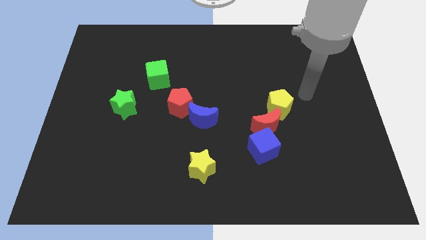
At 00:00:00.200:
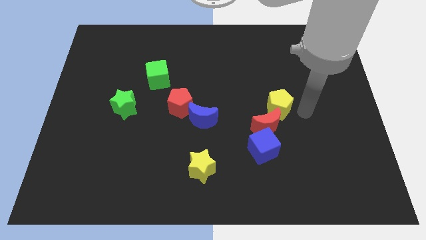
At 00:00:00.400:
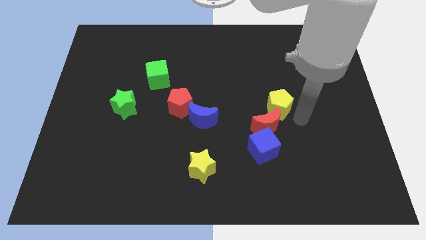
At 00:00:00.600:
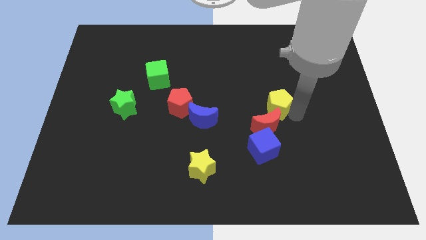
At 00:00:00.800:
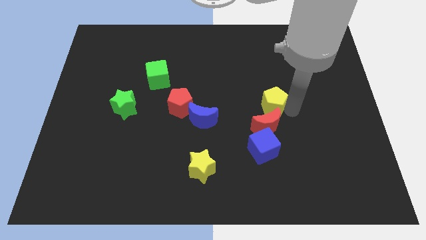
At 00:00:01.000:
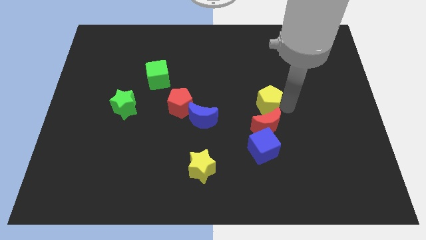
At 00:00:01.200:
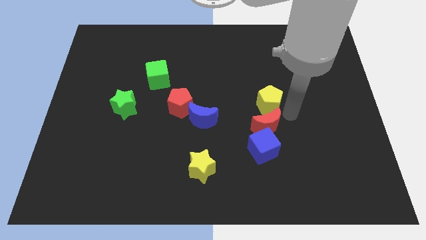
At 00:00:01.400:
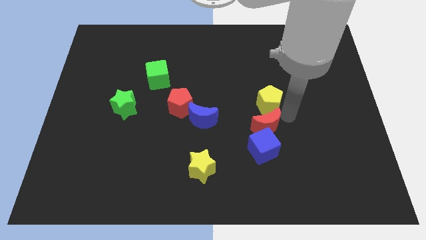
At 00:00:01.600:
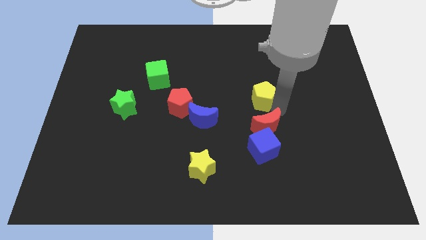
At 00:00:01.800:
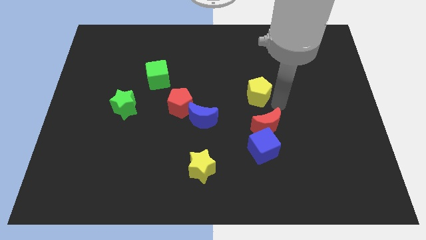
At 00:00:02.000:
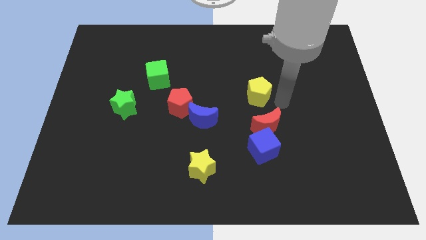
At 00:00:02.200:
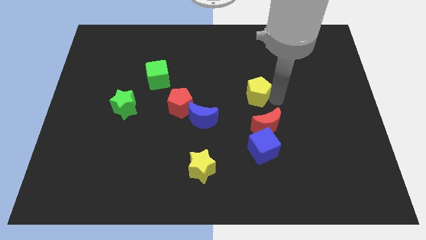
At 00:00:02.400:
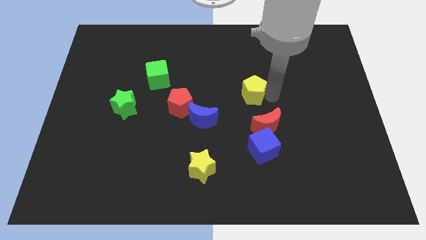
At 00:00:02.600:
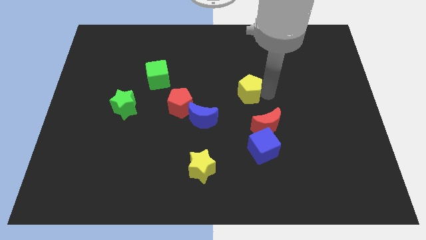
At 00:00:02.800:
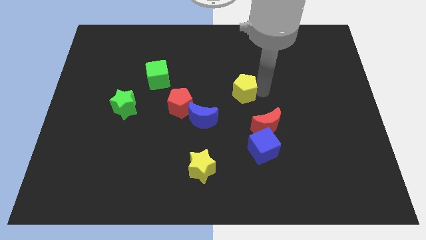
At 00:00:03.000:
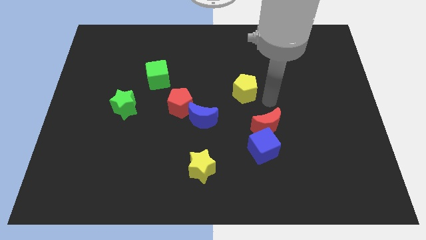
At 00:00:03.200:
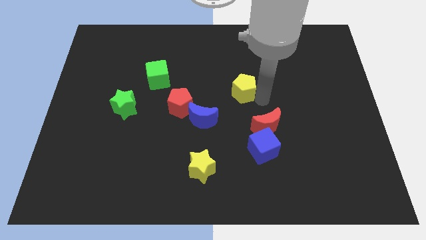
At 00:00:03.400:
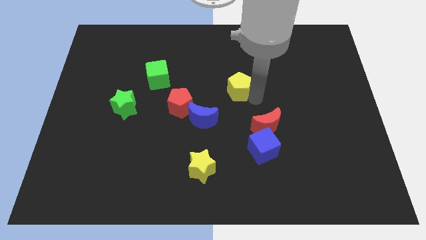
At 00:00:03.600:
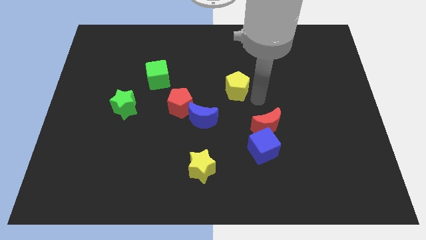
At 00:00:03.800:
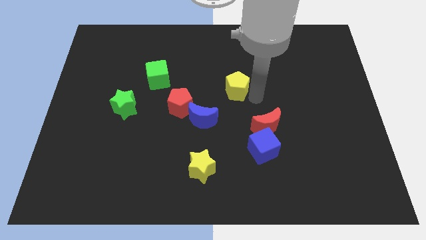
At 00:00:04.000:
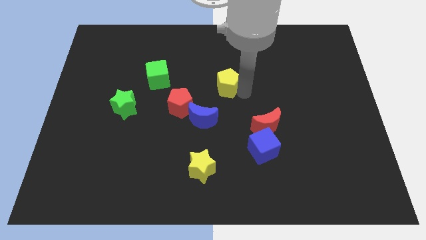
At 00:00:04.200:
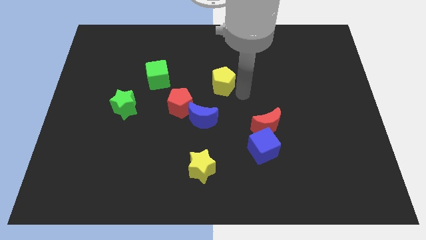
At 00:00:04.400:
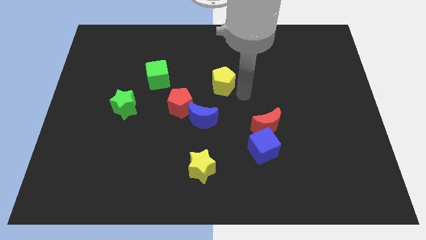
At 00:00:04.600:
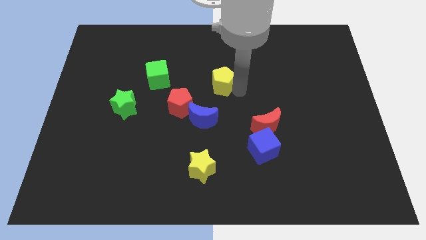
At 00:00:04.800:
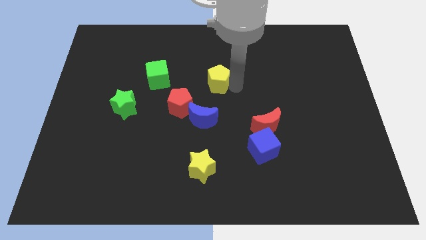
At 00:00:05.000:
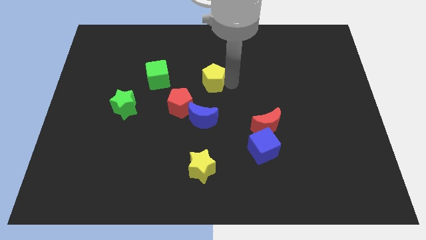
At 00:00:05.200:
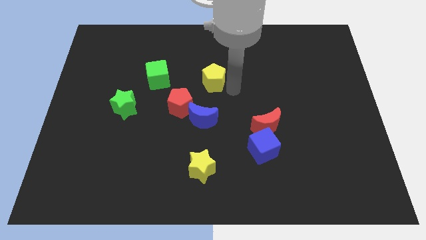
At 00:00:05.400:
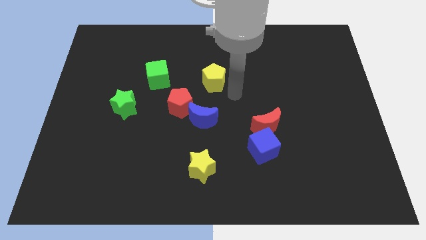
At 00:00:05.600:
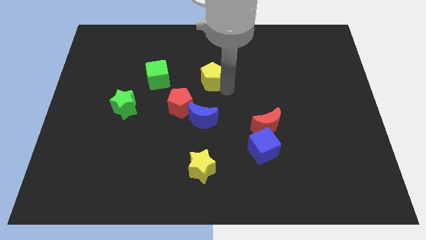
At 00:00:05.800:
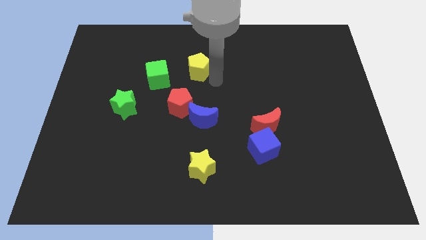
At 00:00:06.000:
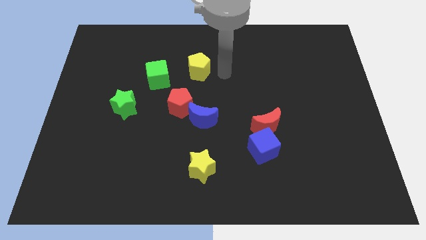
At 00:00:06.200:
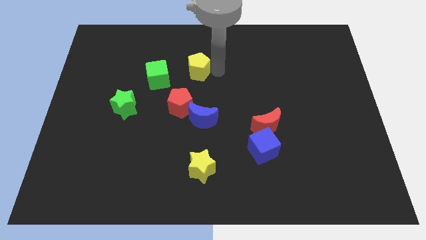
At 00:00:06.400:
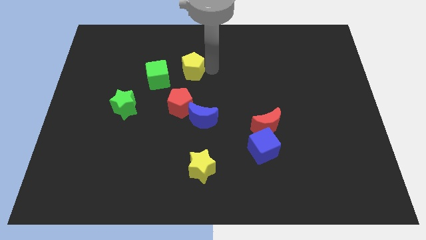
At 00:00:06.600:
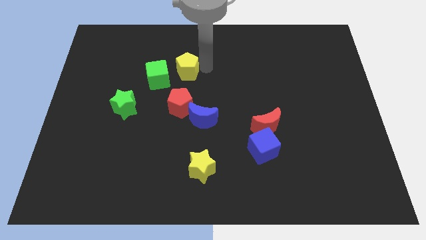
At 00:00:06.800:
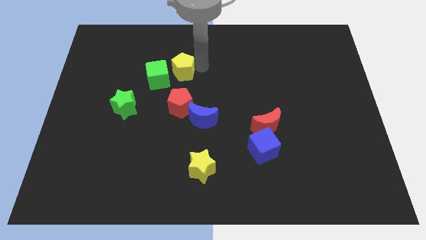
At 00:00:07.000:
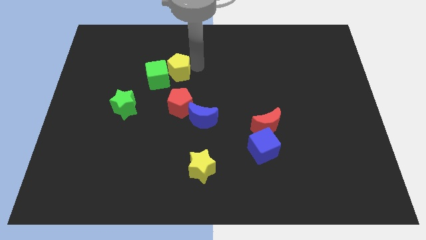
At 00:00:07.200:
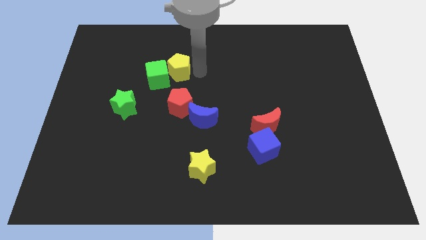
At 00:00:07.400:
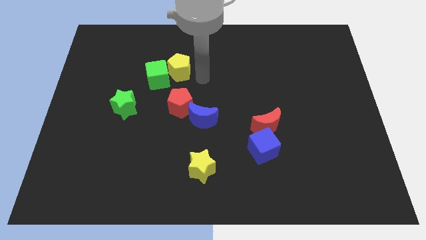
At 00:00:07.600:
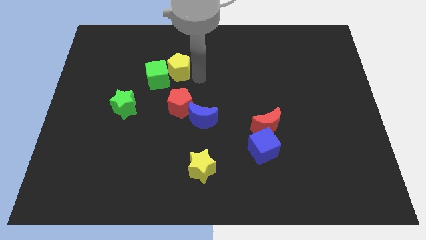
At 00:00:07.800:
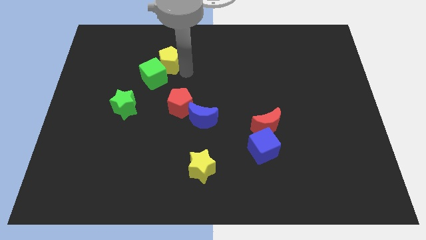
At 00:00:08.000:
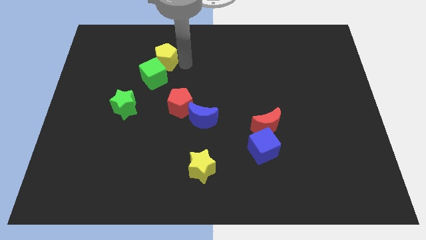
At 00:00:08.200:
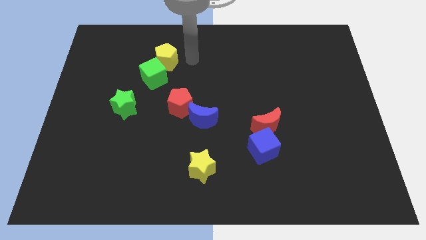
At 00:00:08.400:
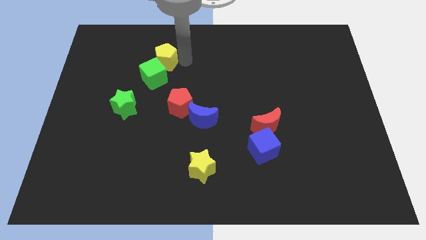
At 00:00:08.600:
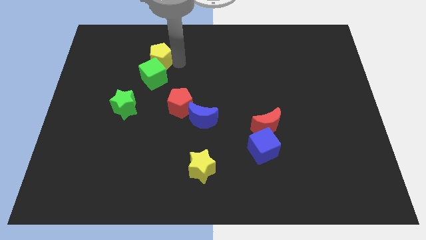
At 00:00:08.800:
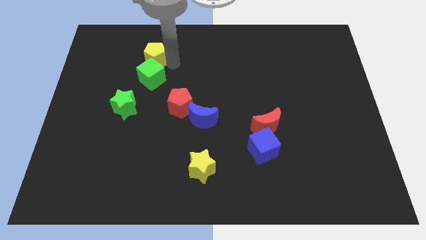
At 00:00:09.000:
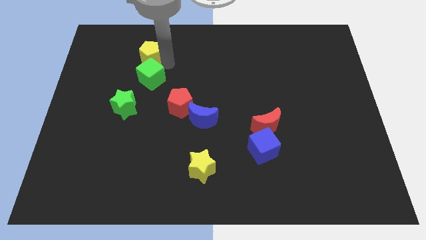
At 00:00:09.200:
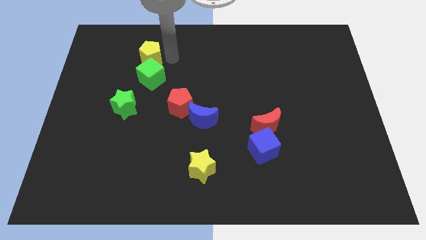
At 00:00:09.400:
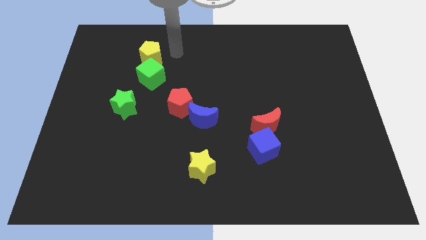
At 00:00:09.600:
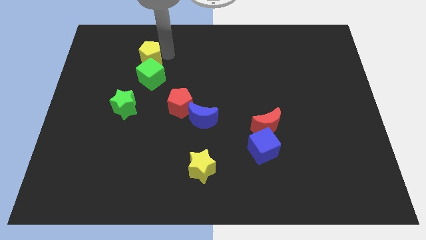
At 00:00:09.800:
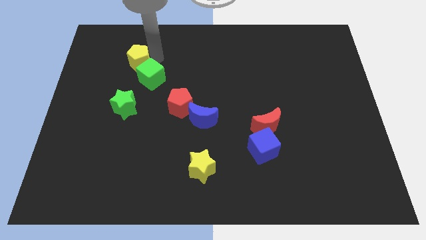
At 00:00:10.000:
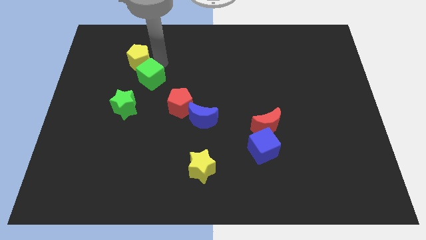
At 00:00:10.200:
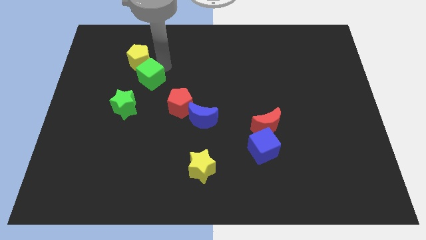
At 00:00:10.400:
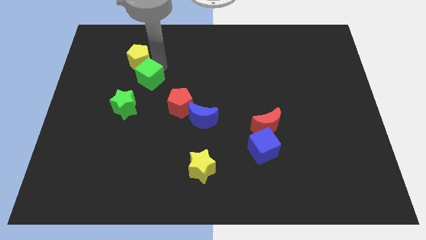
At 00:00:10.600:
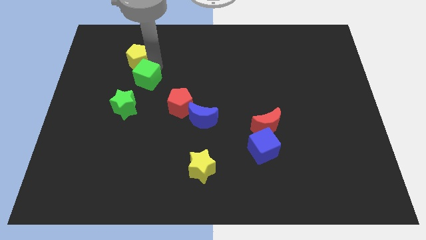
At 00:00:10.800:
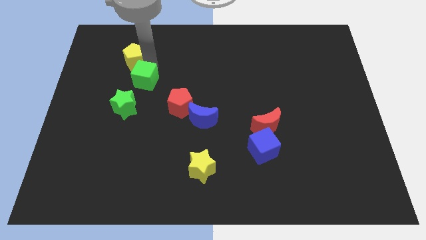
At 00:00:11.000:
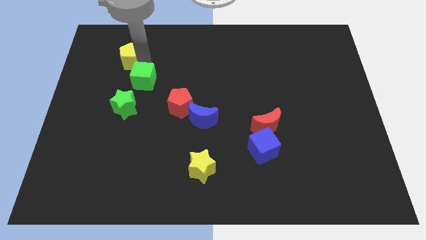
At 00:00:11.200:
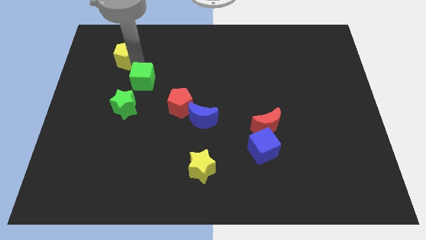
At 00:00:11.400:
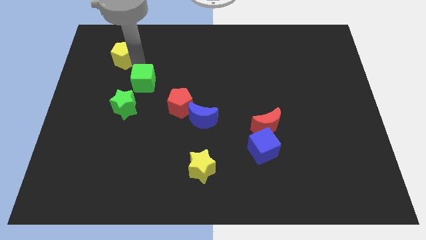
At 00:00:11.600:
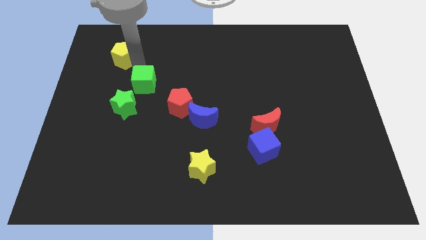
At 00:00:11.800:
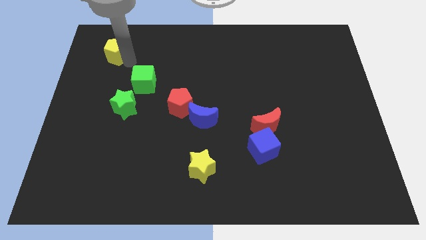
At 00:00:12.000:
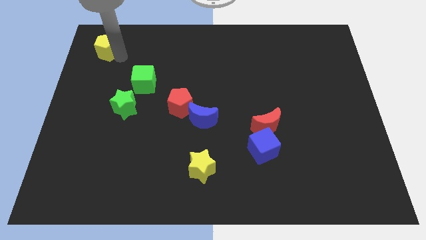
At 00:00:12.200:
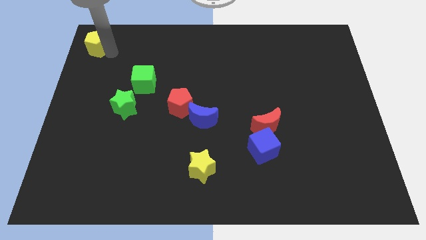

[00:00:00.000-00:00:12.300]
move the yellow pentagon to the top left
